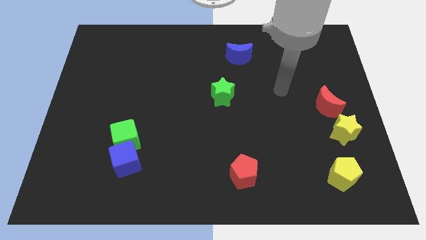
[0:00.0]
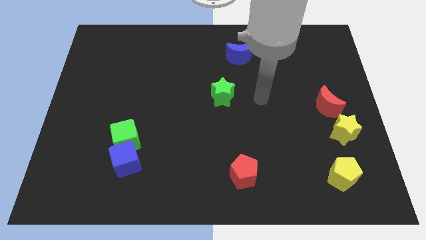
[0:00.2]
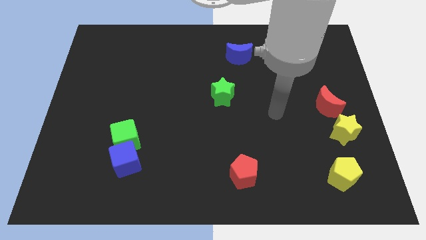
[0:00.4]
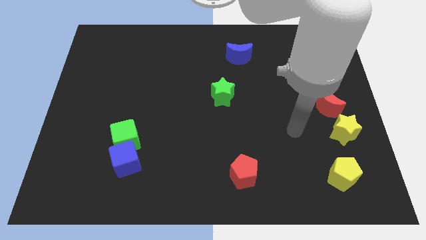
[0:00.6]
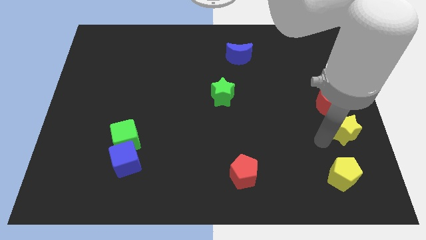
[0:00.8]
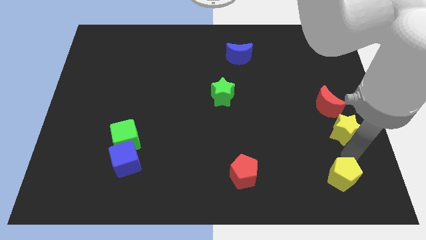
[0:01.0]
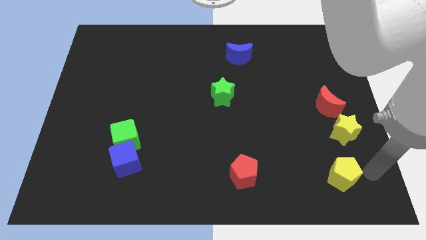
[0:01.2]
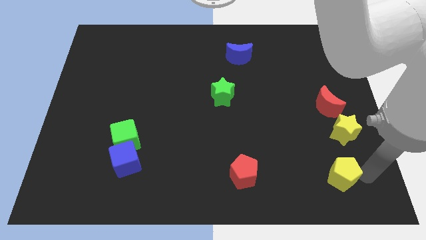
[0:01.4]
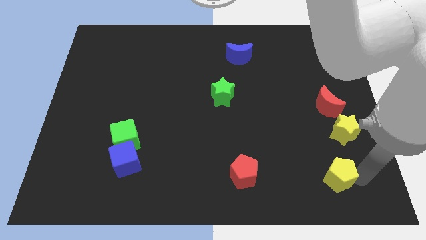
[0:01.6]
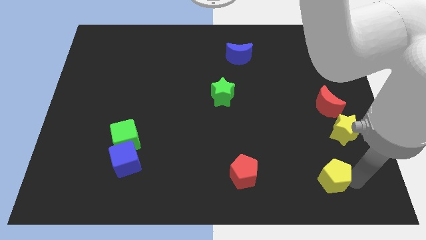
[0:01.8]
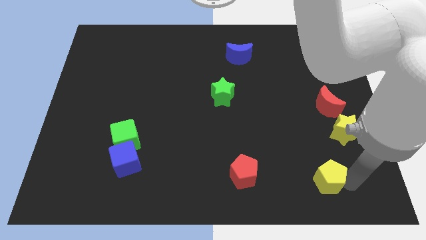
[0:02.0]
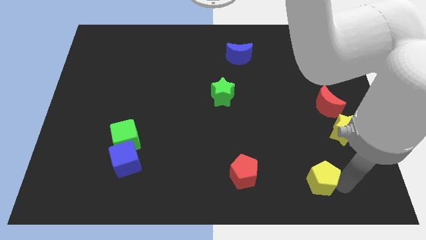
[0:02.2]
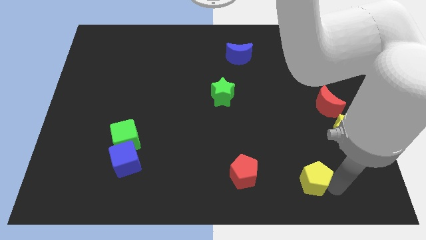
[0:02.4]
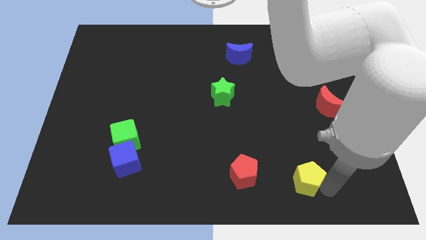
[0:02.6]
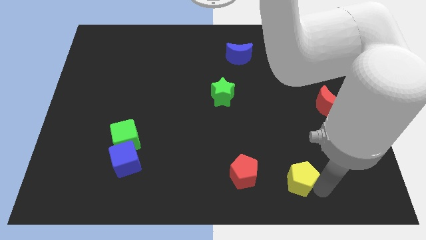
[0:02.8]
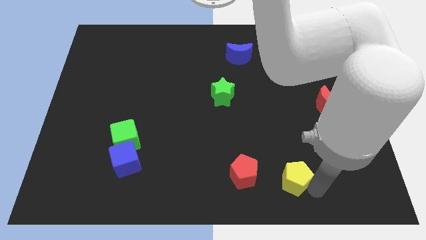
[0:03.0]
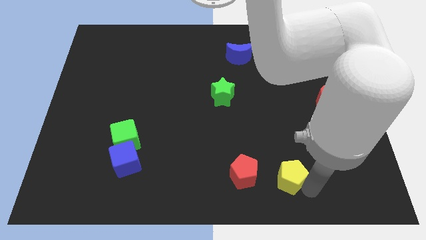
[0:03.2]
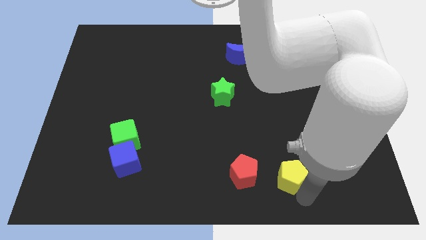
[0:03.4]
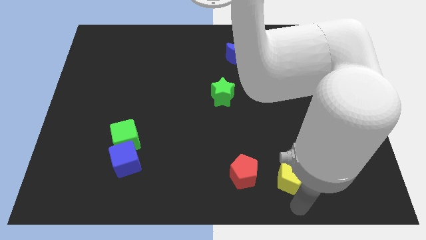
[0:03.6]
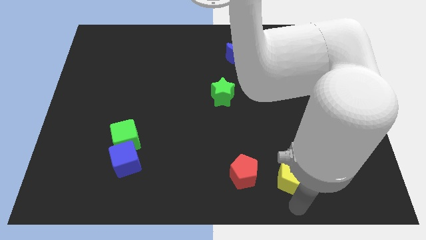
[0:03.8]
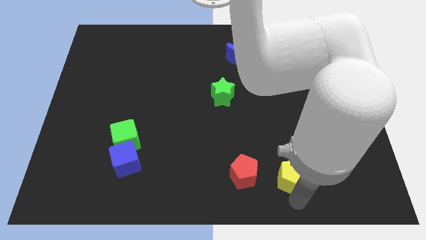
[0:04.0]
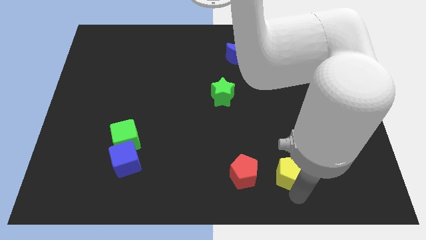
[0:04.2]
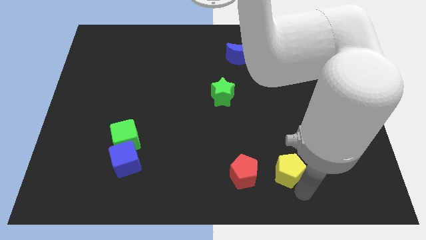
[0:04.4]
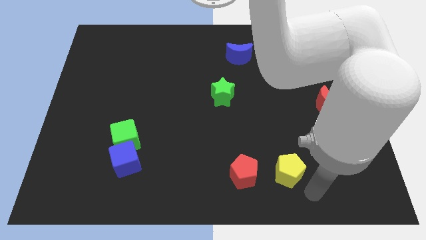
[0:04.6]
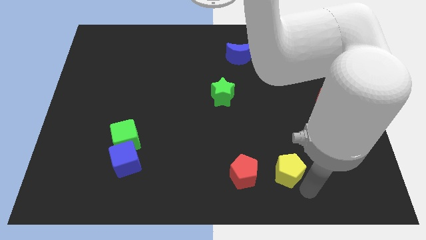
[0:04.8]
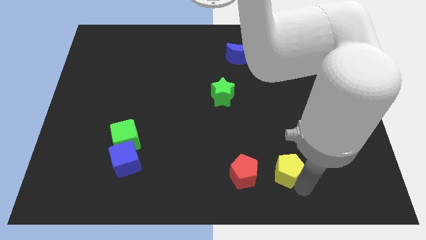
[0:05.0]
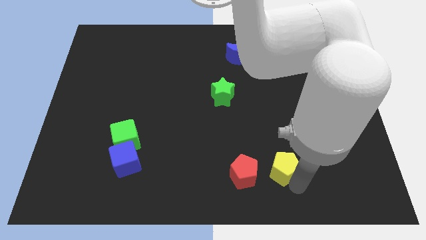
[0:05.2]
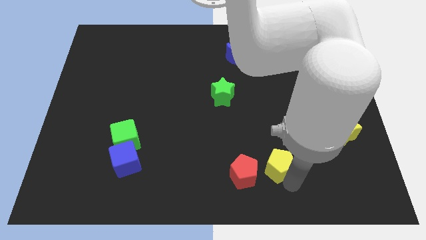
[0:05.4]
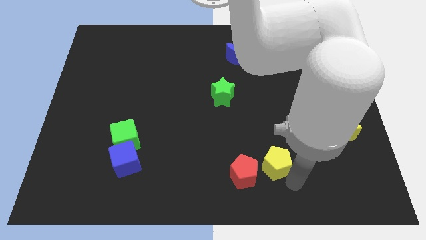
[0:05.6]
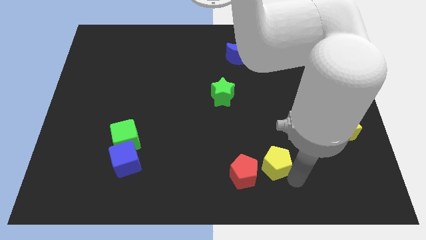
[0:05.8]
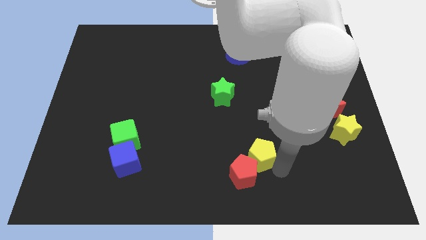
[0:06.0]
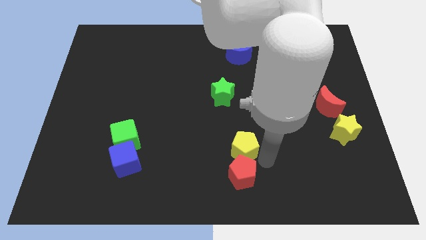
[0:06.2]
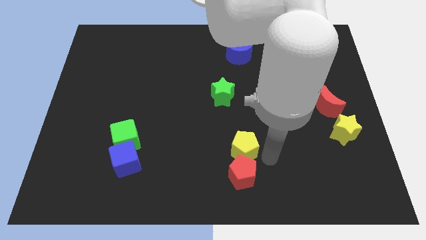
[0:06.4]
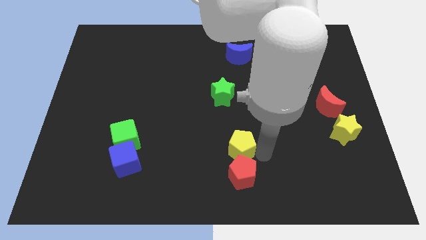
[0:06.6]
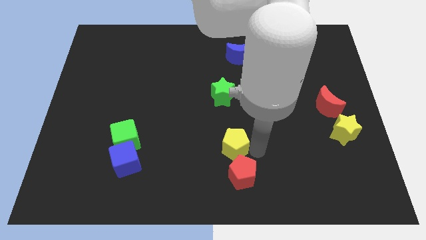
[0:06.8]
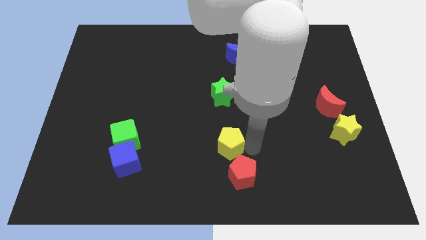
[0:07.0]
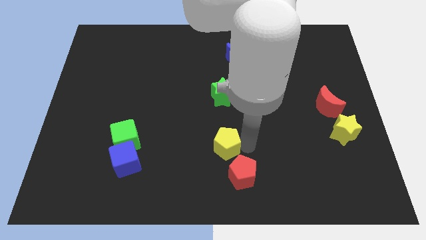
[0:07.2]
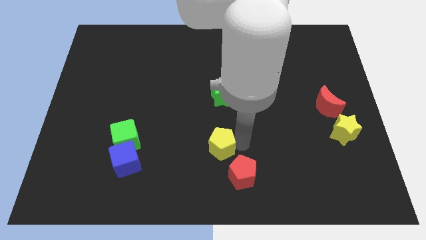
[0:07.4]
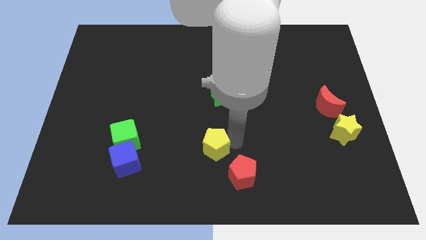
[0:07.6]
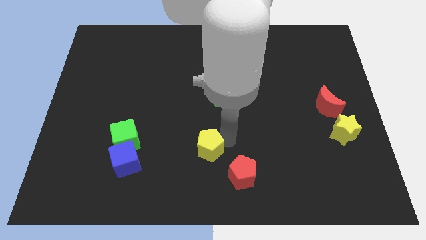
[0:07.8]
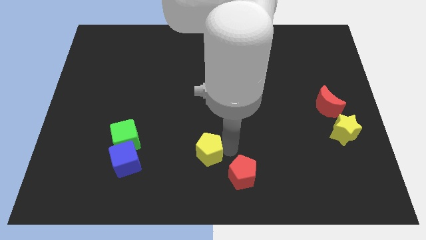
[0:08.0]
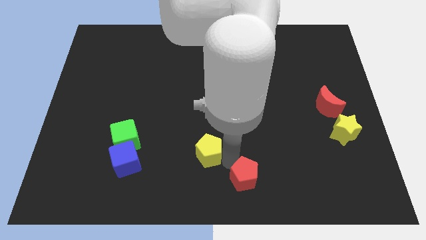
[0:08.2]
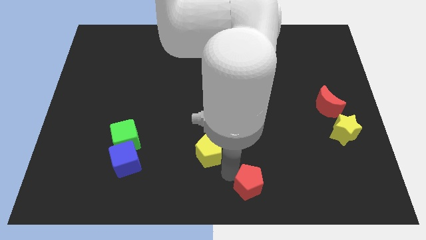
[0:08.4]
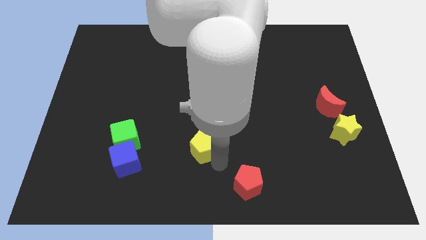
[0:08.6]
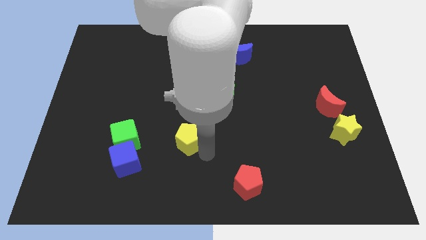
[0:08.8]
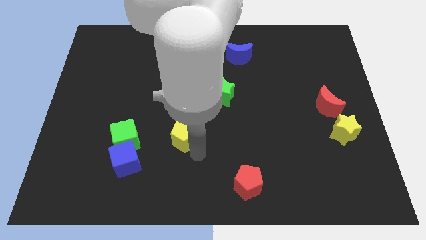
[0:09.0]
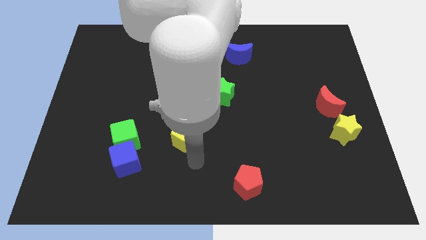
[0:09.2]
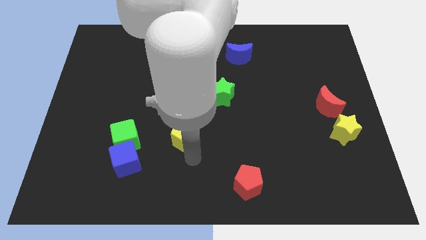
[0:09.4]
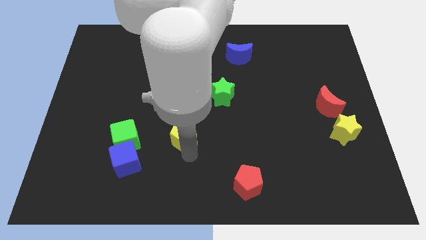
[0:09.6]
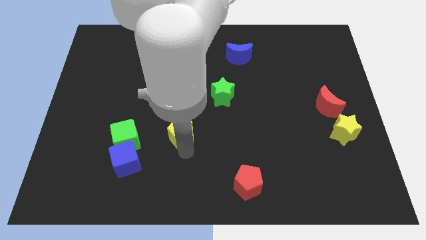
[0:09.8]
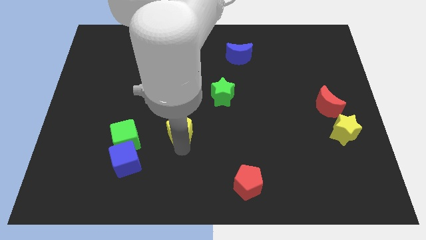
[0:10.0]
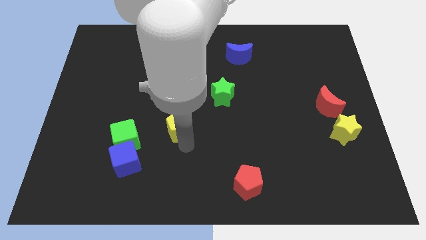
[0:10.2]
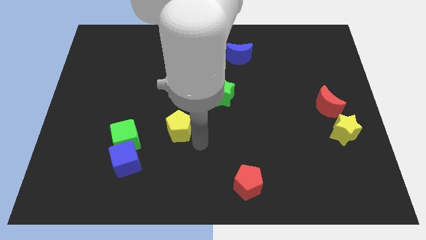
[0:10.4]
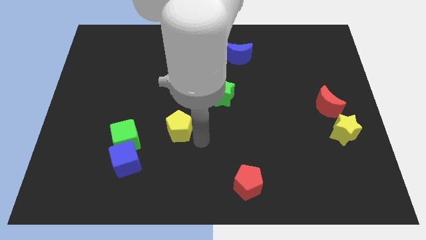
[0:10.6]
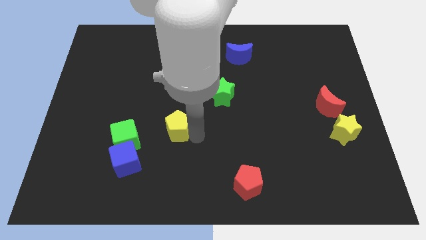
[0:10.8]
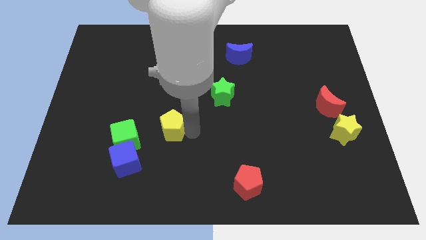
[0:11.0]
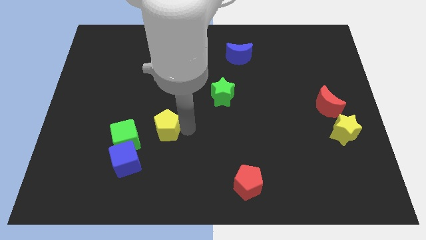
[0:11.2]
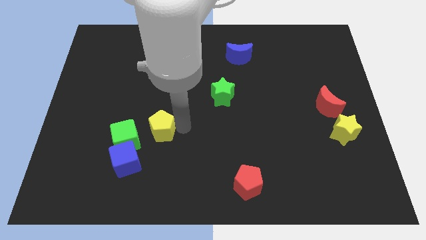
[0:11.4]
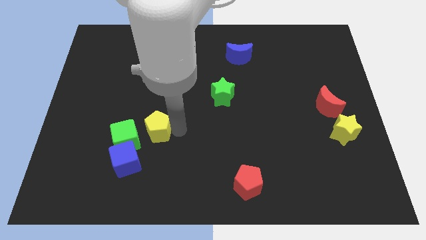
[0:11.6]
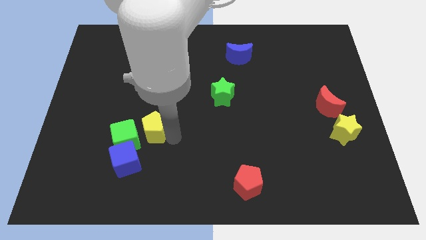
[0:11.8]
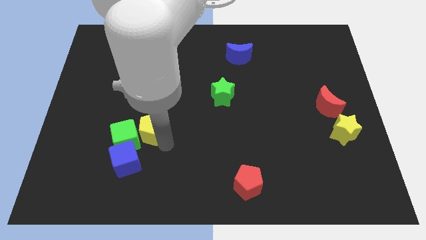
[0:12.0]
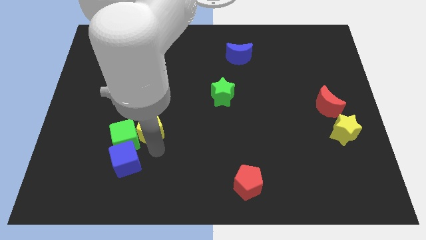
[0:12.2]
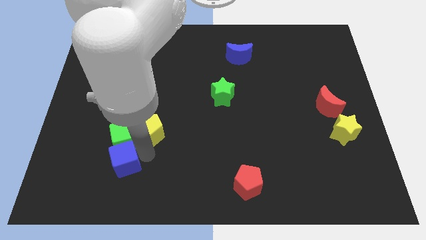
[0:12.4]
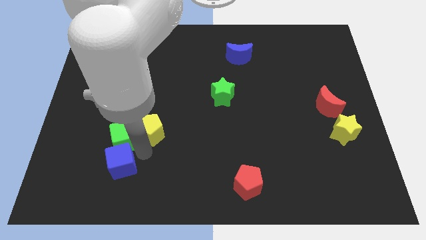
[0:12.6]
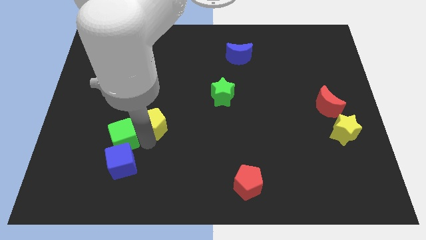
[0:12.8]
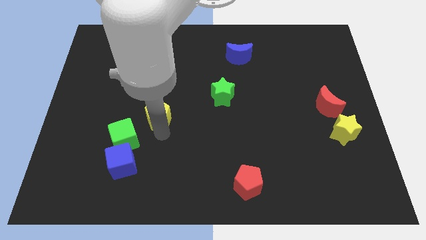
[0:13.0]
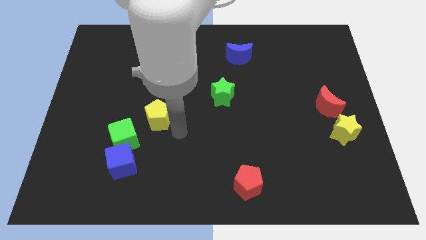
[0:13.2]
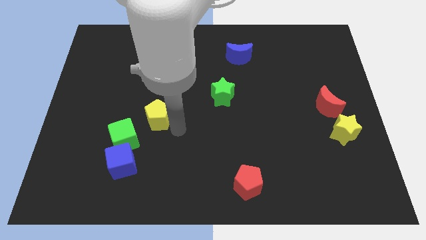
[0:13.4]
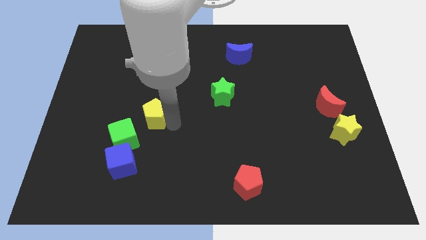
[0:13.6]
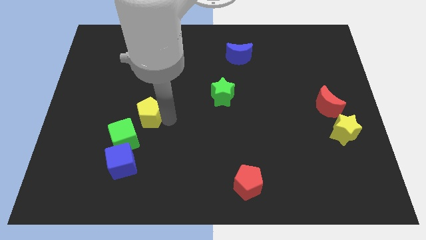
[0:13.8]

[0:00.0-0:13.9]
slide the yellow pentagon above the green cube

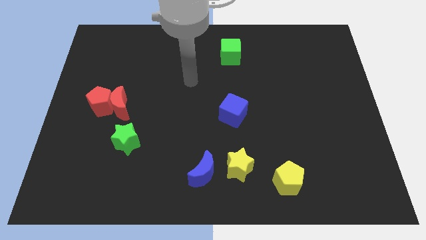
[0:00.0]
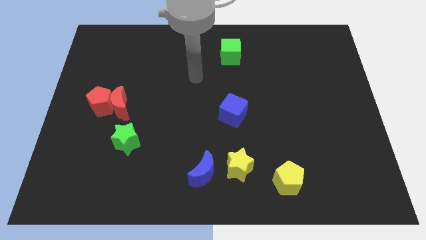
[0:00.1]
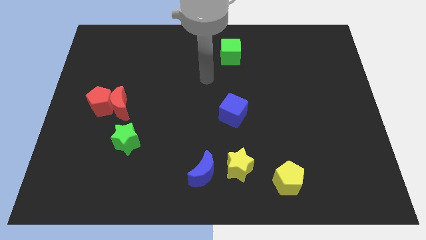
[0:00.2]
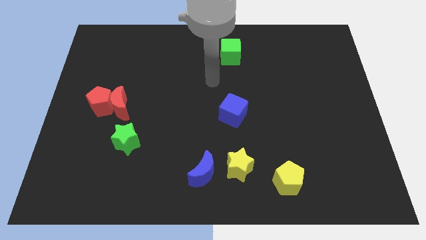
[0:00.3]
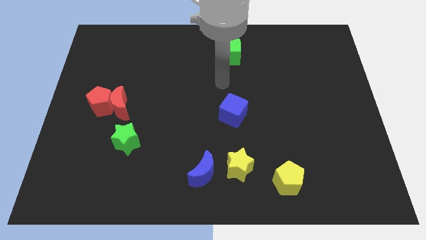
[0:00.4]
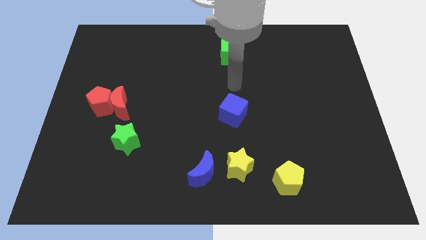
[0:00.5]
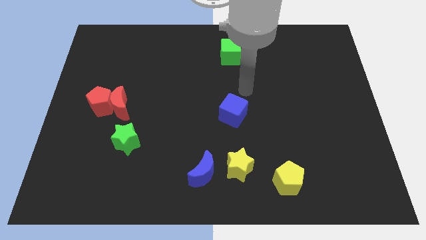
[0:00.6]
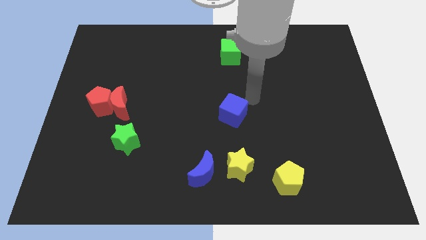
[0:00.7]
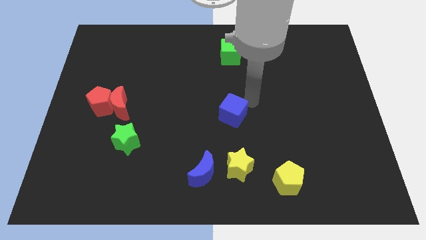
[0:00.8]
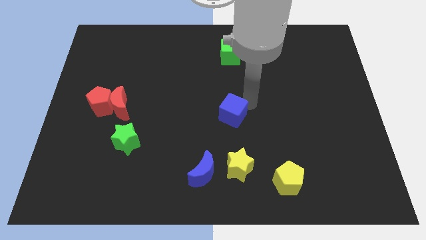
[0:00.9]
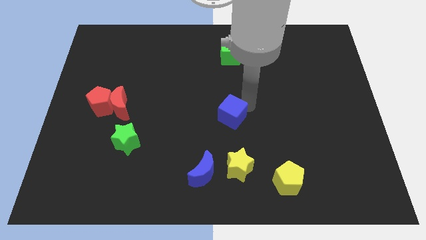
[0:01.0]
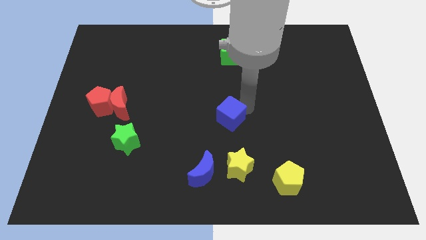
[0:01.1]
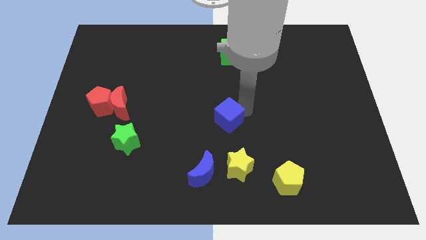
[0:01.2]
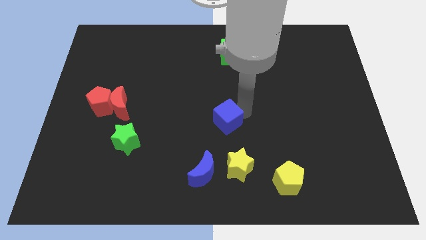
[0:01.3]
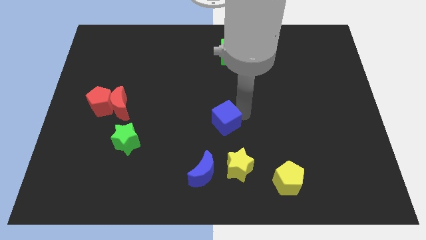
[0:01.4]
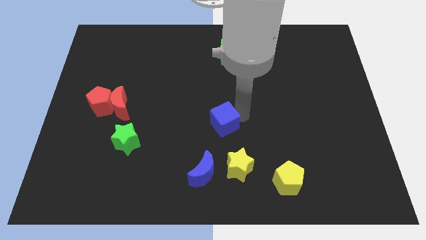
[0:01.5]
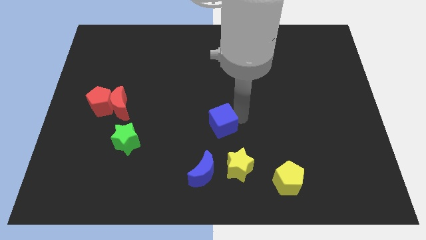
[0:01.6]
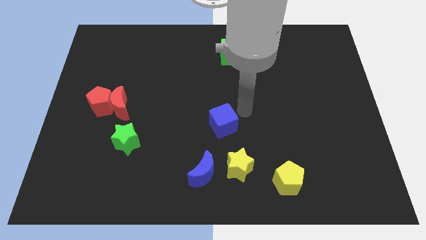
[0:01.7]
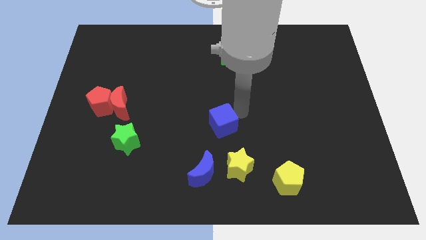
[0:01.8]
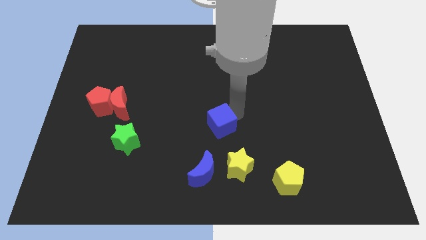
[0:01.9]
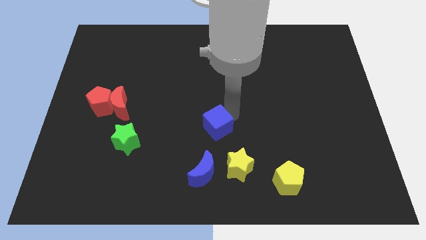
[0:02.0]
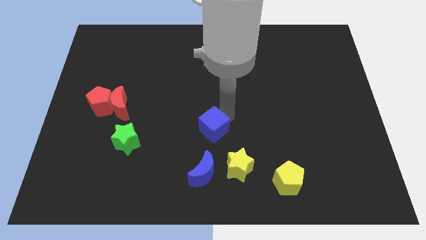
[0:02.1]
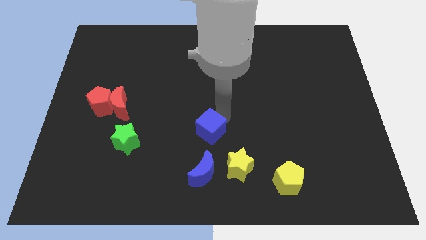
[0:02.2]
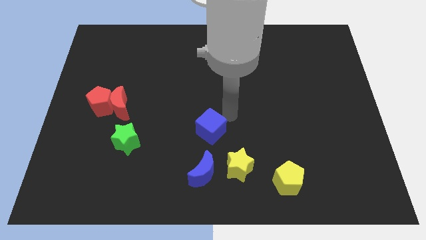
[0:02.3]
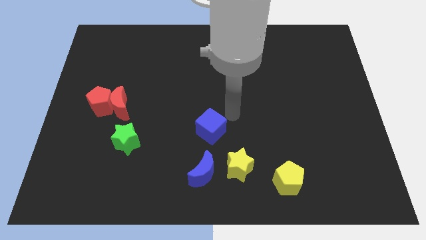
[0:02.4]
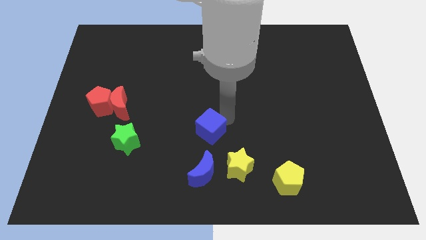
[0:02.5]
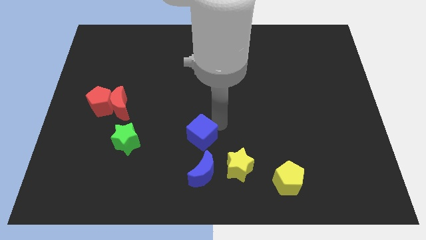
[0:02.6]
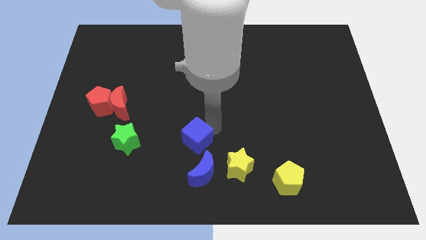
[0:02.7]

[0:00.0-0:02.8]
push the blue cube to the top left of the blue moon
